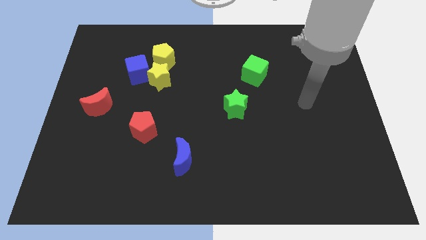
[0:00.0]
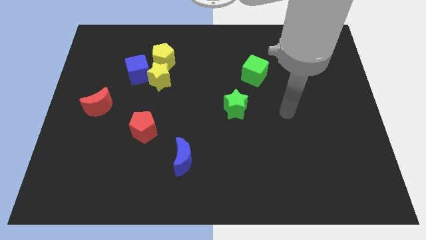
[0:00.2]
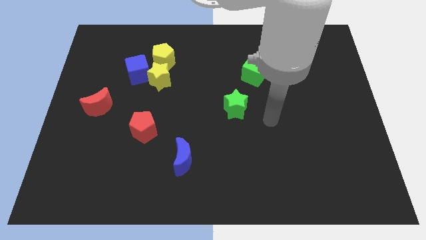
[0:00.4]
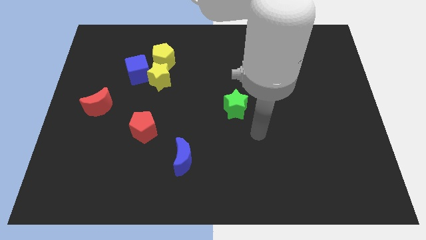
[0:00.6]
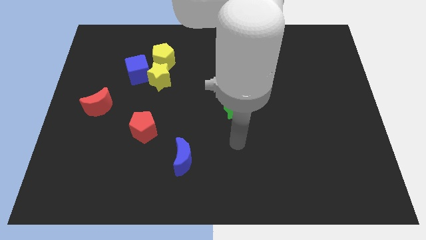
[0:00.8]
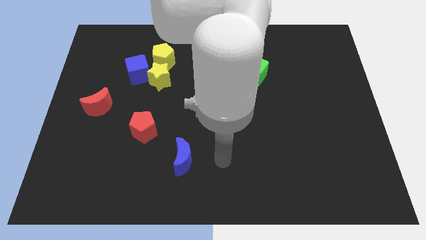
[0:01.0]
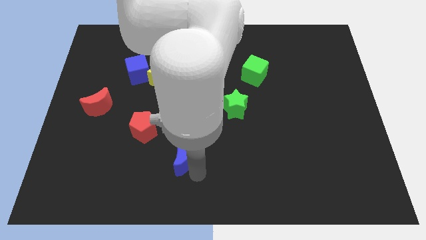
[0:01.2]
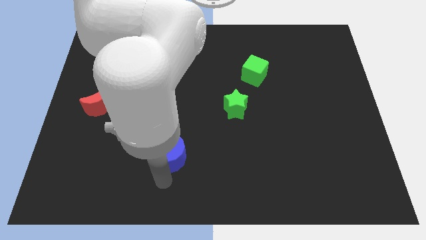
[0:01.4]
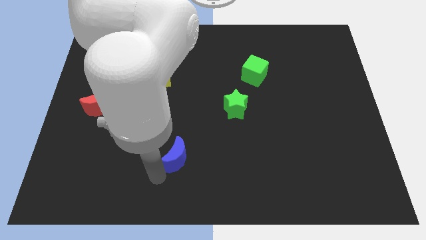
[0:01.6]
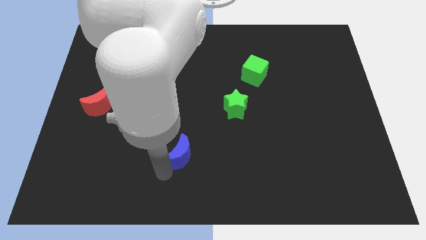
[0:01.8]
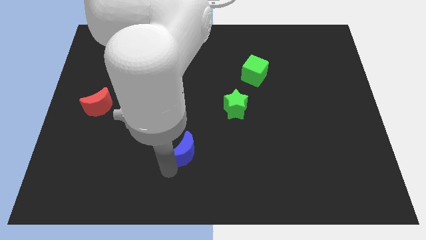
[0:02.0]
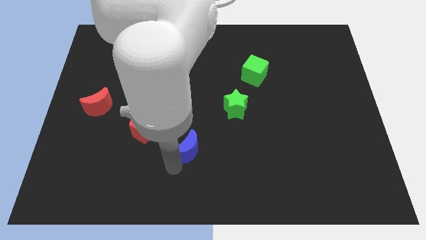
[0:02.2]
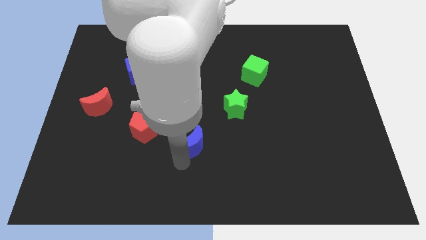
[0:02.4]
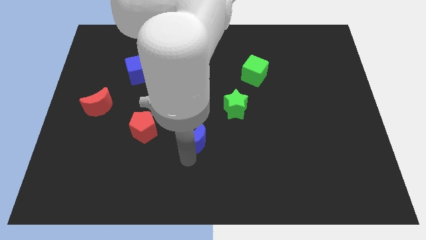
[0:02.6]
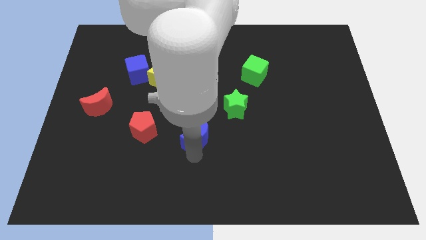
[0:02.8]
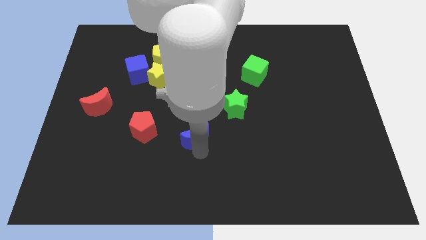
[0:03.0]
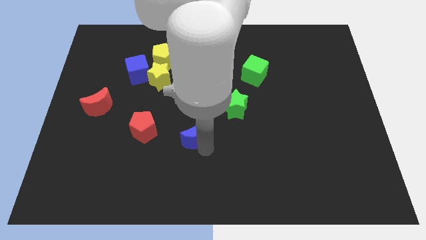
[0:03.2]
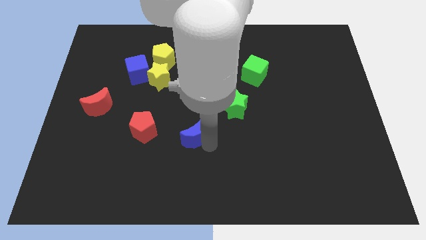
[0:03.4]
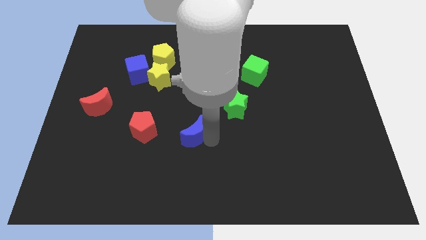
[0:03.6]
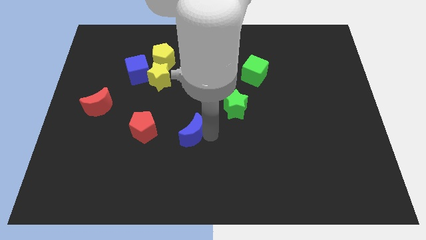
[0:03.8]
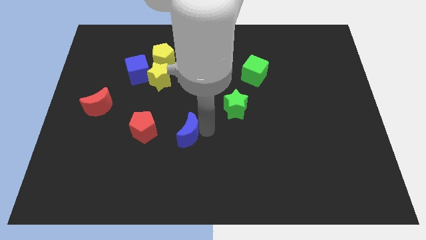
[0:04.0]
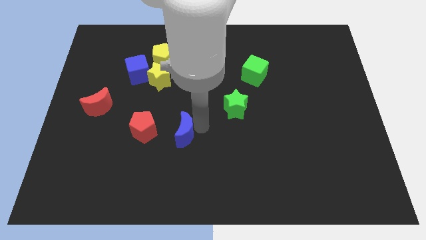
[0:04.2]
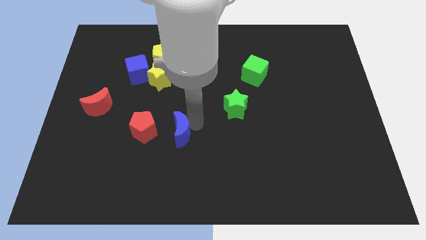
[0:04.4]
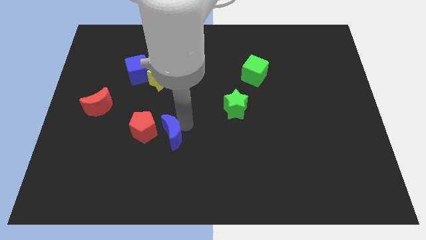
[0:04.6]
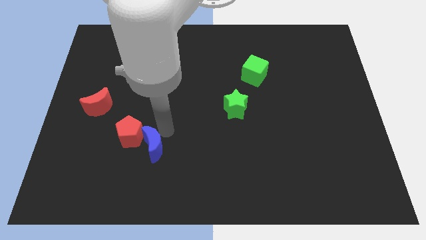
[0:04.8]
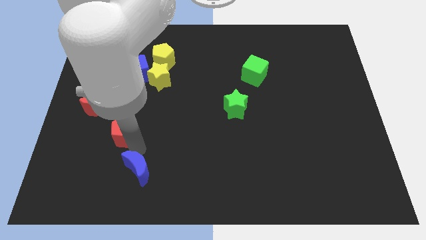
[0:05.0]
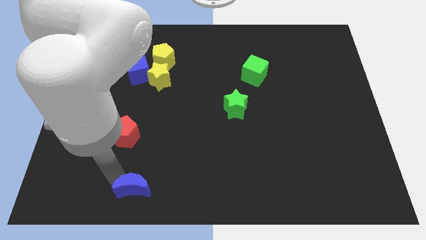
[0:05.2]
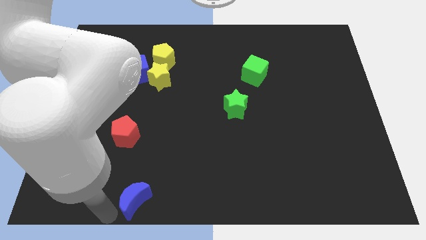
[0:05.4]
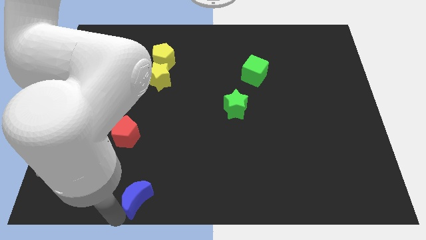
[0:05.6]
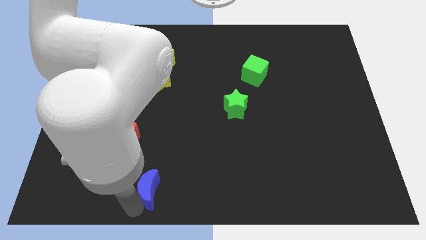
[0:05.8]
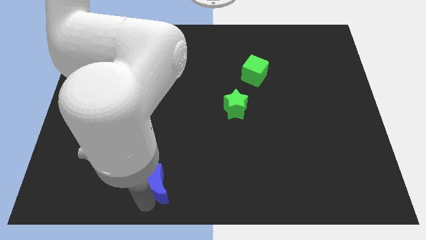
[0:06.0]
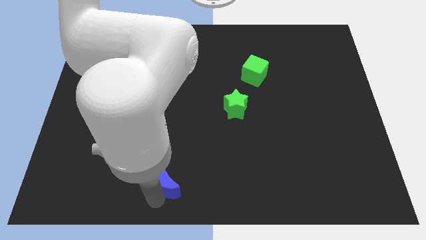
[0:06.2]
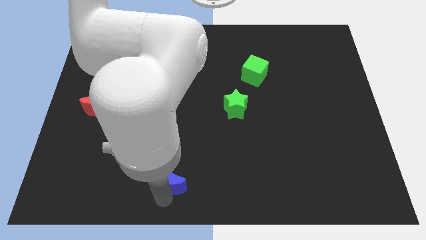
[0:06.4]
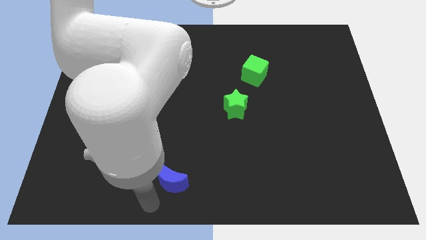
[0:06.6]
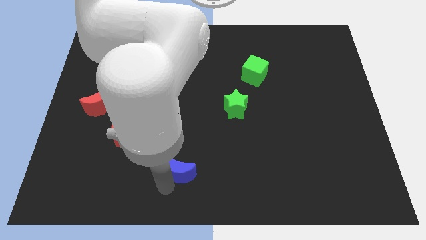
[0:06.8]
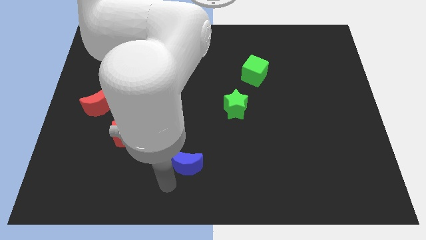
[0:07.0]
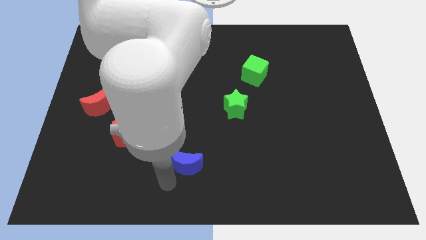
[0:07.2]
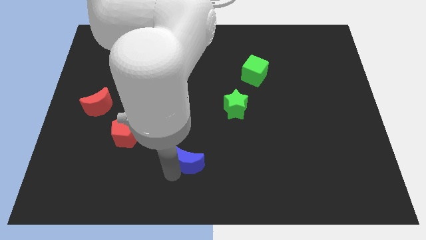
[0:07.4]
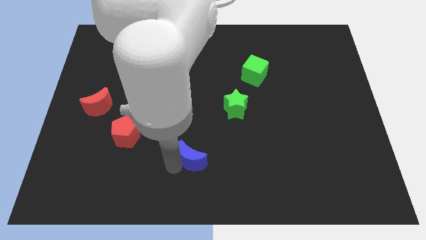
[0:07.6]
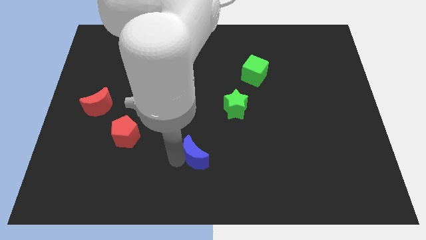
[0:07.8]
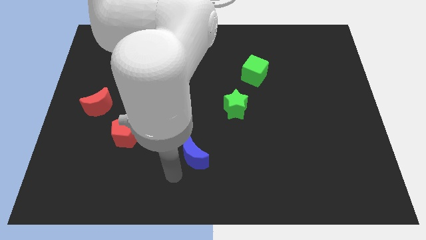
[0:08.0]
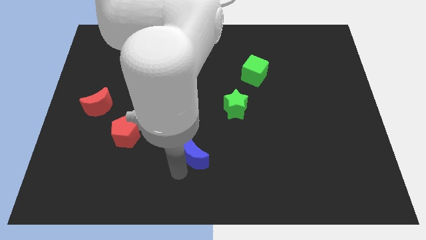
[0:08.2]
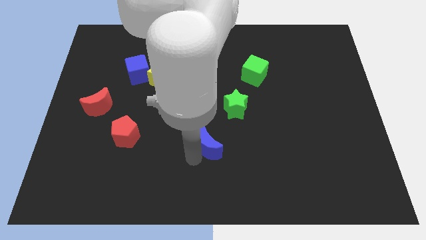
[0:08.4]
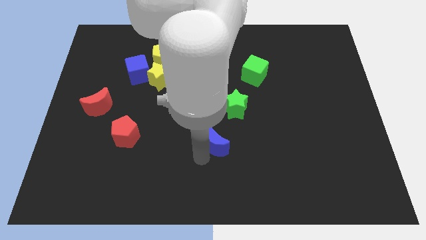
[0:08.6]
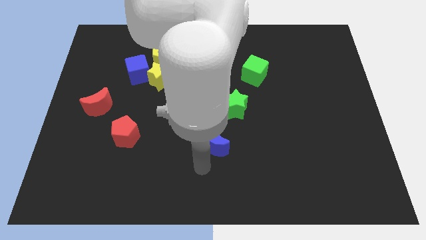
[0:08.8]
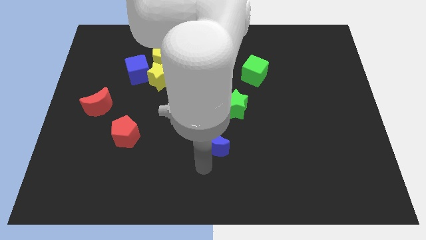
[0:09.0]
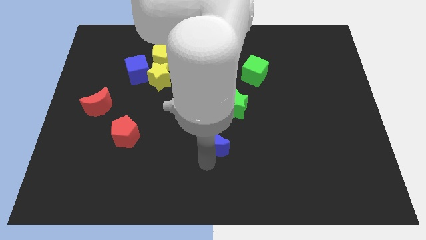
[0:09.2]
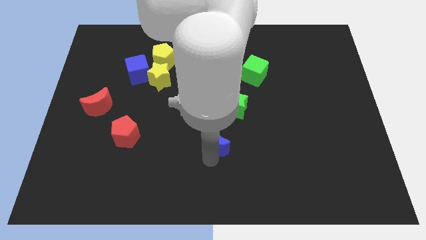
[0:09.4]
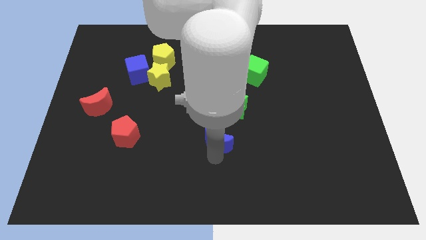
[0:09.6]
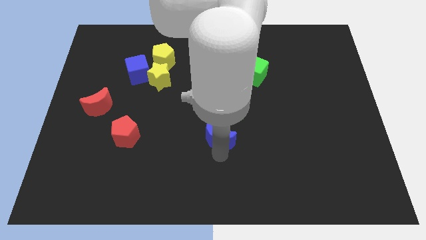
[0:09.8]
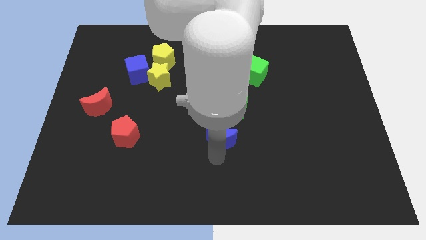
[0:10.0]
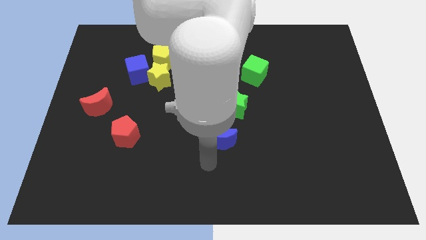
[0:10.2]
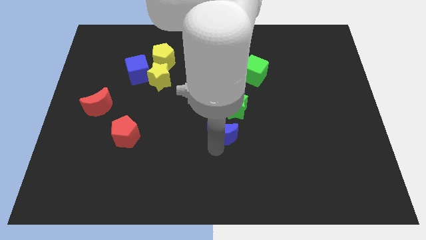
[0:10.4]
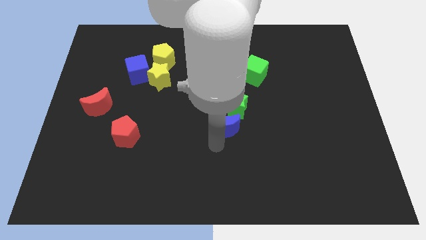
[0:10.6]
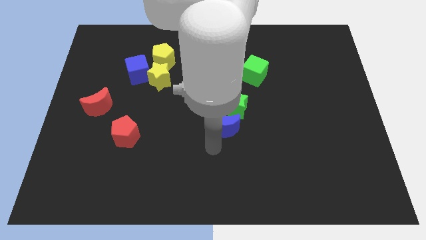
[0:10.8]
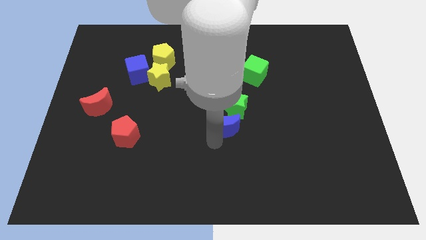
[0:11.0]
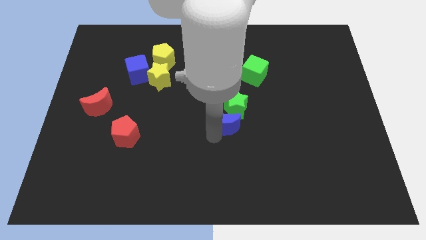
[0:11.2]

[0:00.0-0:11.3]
push the blue moon towards the green star

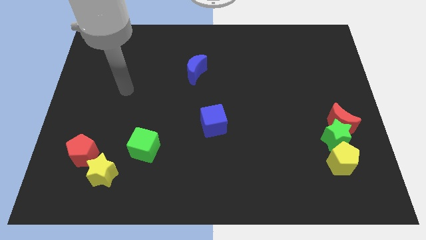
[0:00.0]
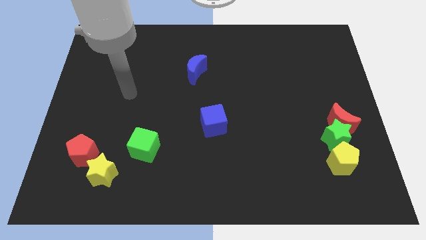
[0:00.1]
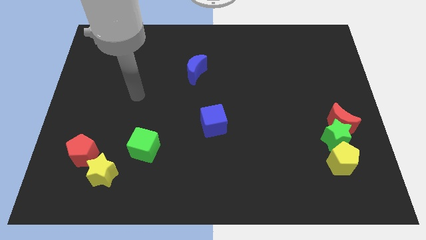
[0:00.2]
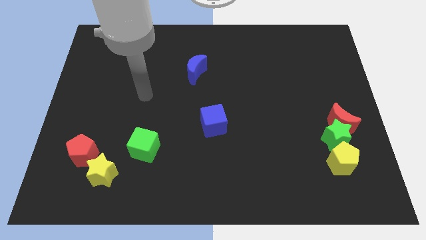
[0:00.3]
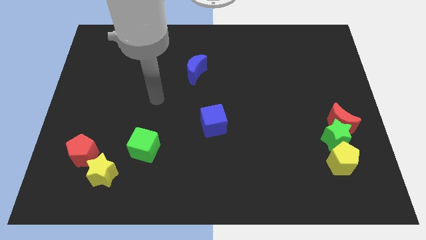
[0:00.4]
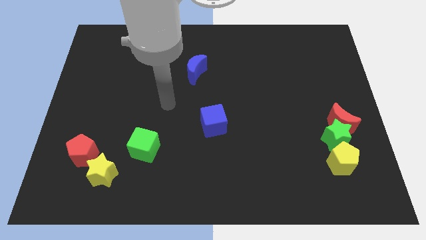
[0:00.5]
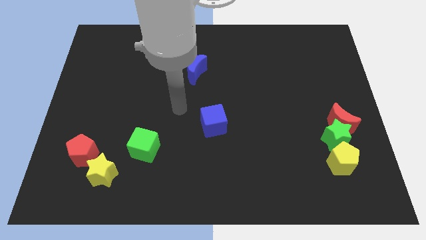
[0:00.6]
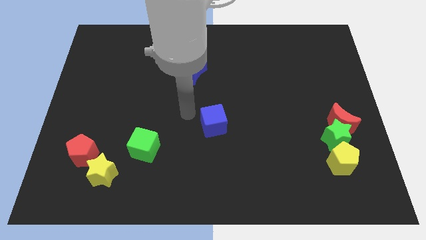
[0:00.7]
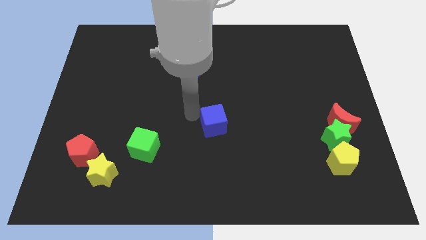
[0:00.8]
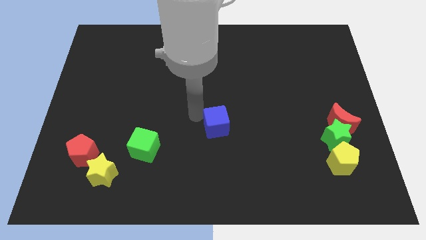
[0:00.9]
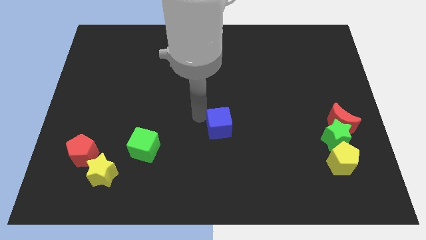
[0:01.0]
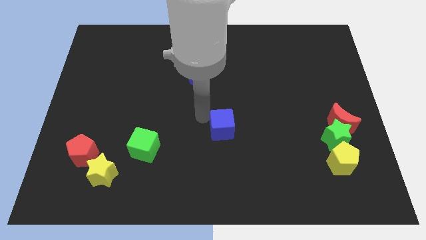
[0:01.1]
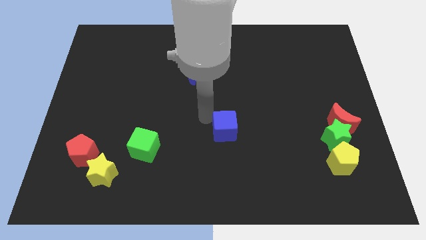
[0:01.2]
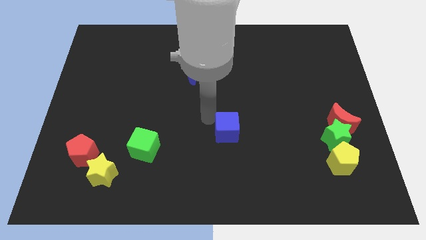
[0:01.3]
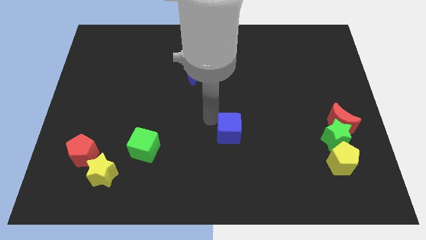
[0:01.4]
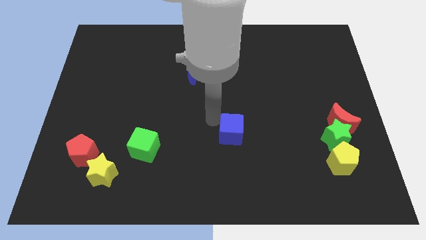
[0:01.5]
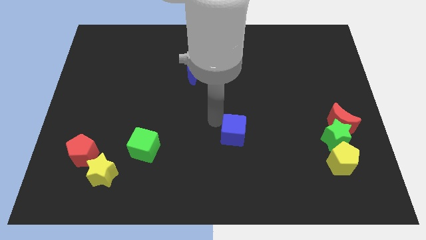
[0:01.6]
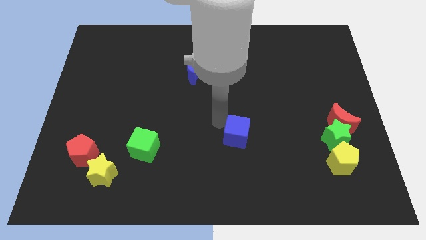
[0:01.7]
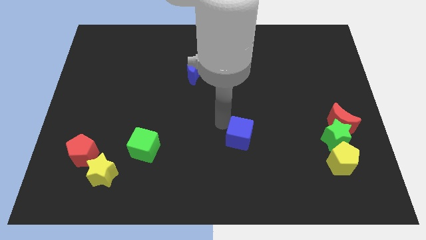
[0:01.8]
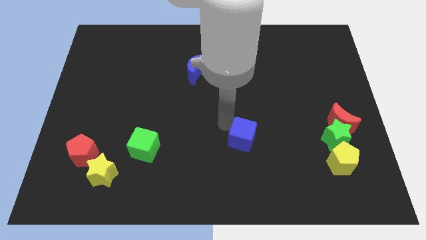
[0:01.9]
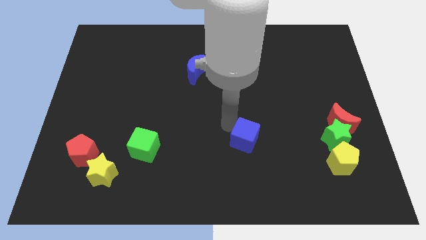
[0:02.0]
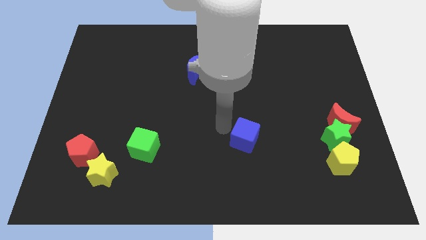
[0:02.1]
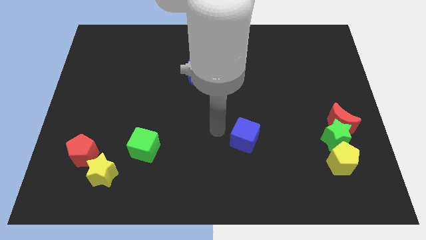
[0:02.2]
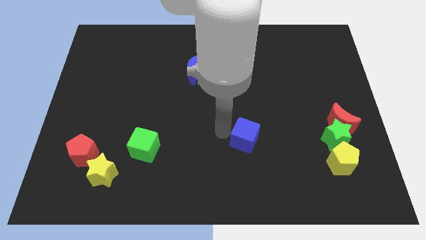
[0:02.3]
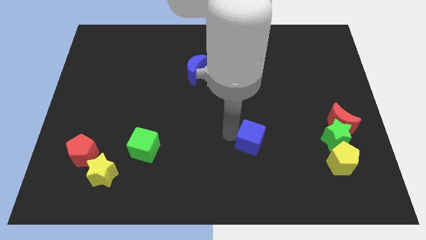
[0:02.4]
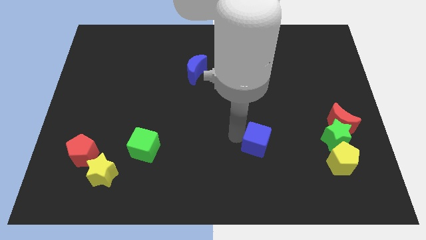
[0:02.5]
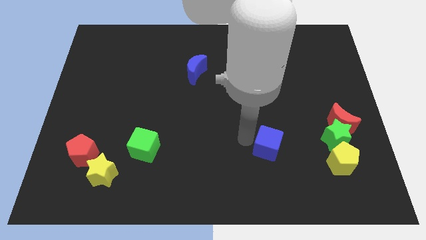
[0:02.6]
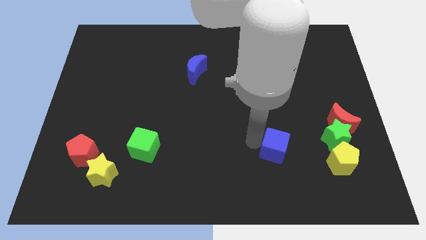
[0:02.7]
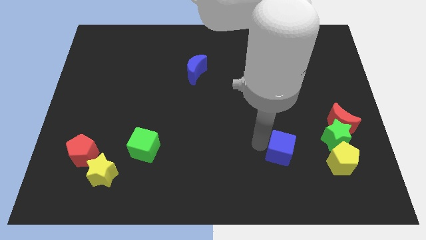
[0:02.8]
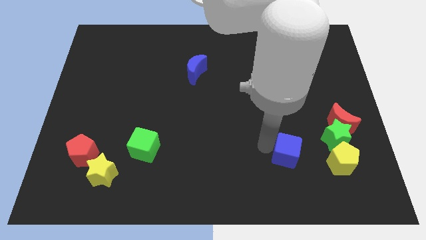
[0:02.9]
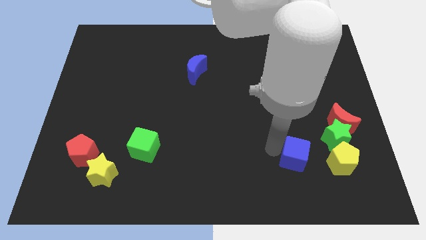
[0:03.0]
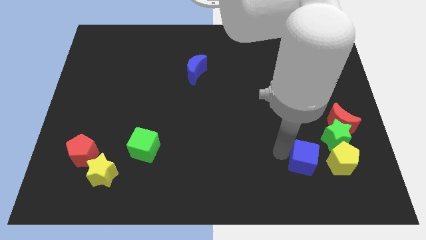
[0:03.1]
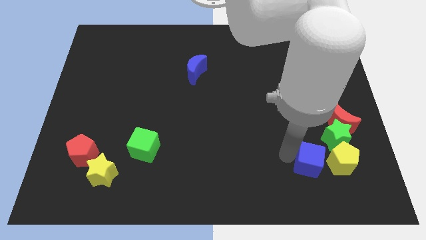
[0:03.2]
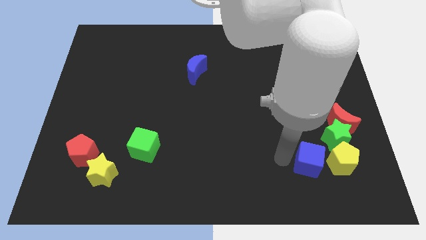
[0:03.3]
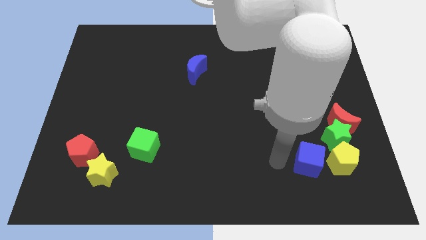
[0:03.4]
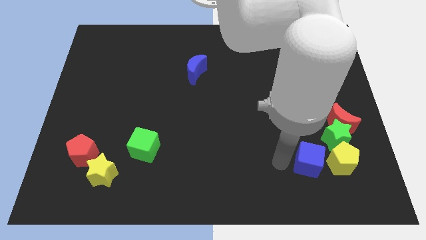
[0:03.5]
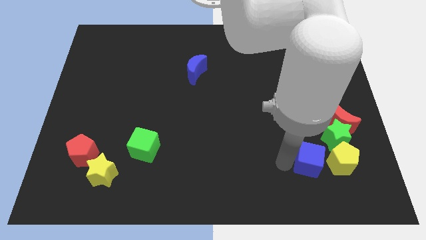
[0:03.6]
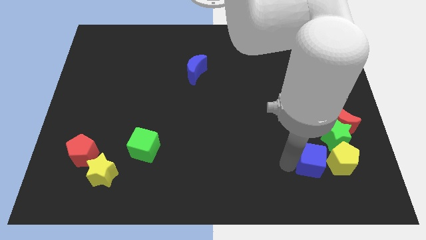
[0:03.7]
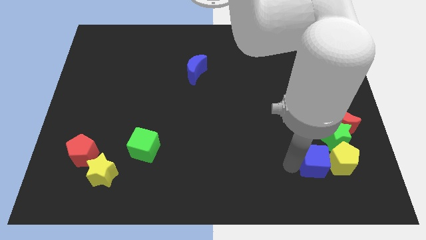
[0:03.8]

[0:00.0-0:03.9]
move the blue cube next to the yellow pentagon
